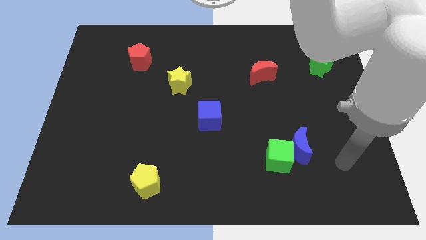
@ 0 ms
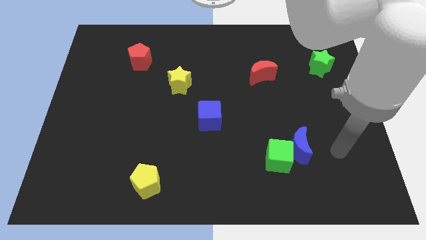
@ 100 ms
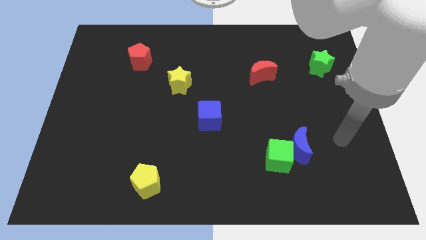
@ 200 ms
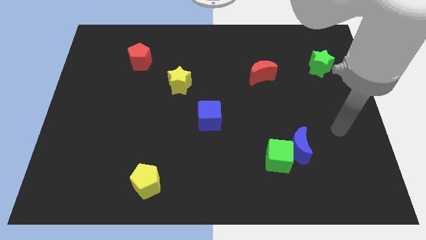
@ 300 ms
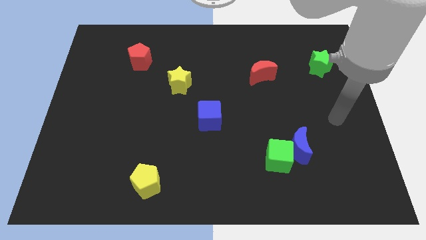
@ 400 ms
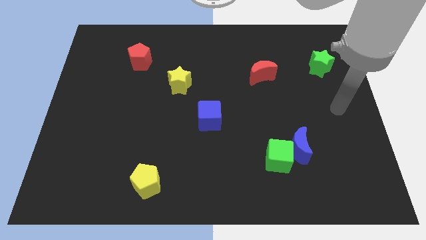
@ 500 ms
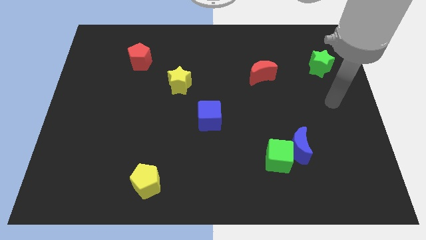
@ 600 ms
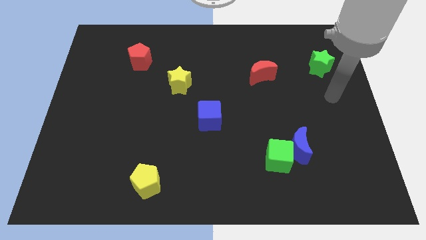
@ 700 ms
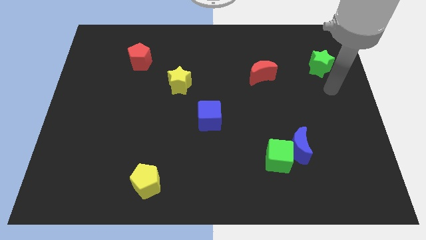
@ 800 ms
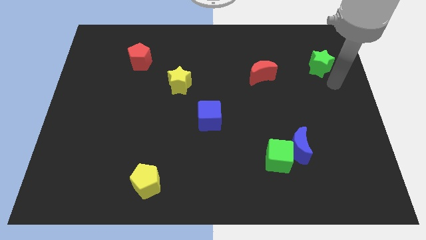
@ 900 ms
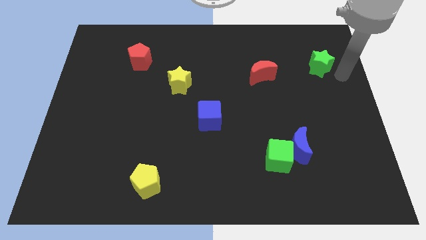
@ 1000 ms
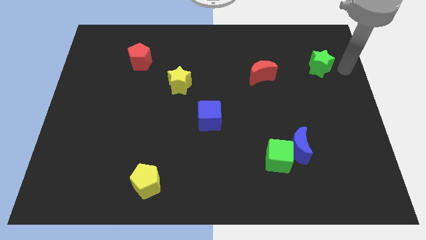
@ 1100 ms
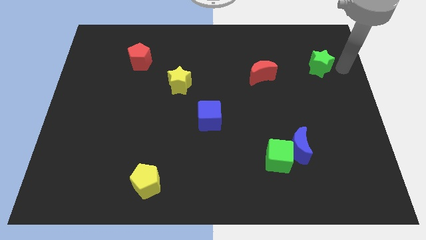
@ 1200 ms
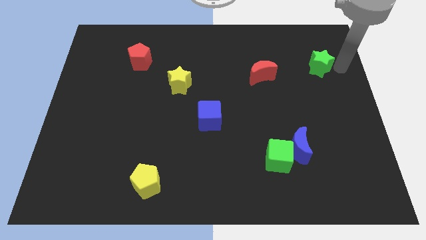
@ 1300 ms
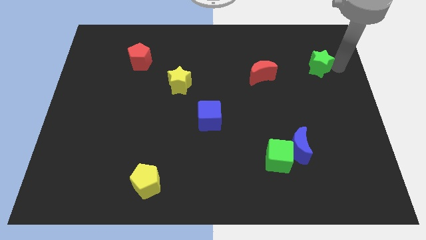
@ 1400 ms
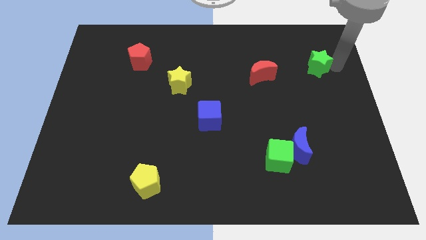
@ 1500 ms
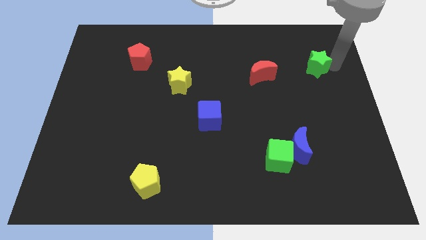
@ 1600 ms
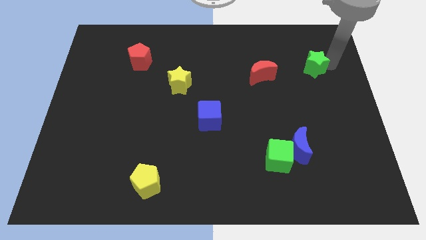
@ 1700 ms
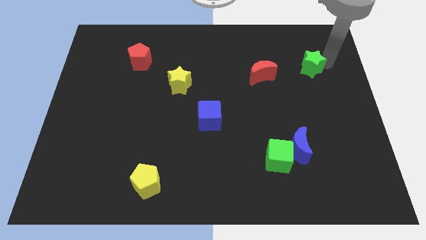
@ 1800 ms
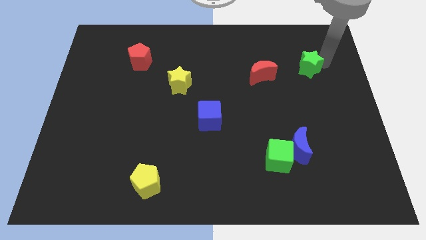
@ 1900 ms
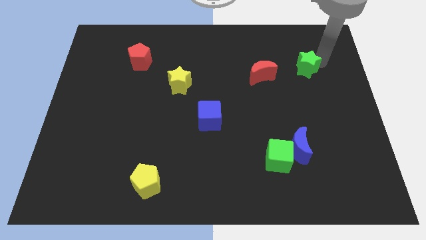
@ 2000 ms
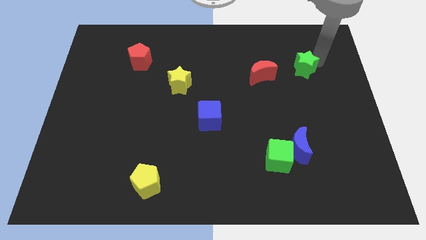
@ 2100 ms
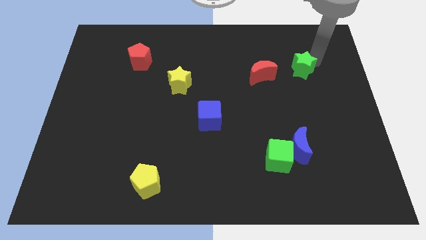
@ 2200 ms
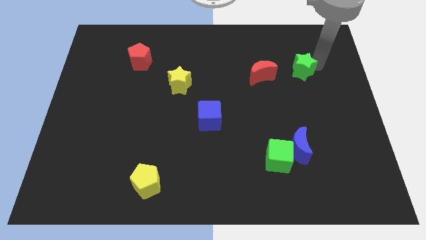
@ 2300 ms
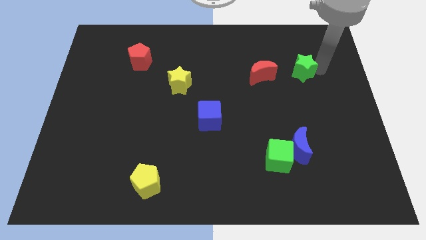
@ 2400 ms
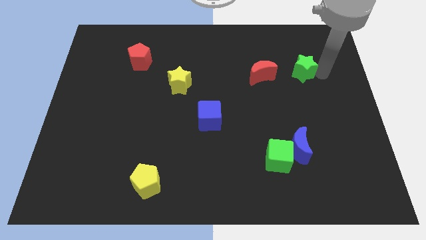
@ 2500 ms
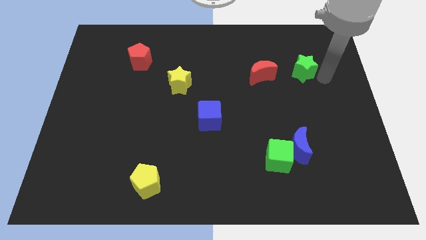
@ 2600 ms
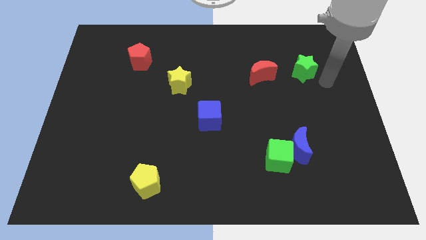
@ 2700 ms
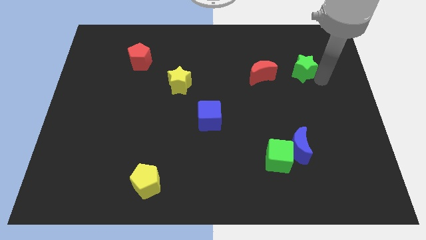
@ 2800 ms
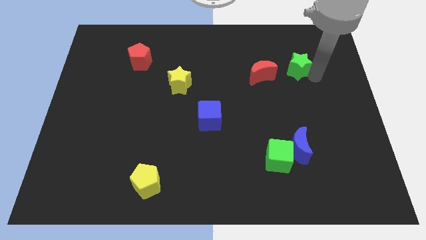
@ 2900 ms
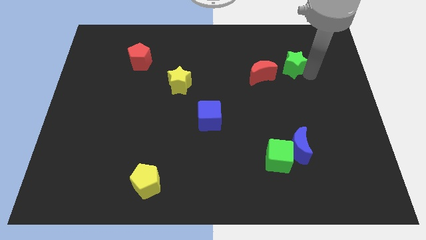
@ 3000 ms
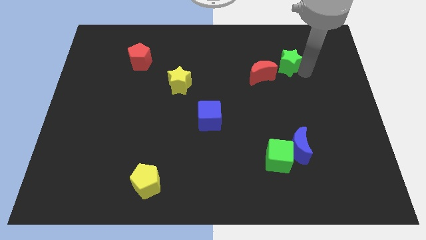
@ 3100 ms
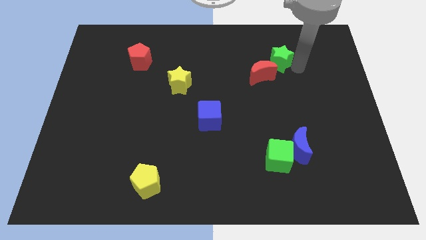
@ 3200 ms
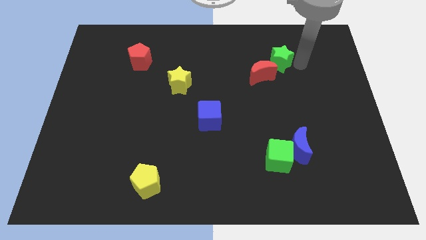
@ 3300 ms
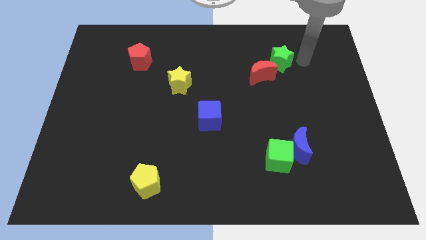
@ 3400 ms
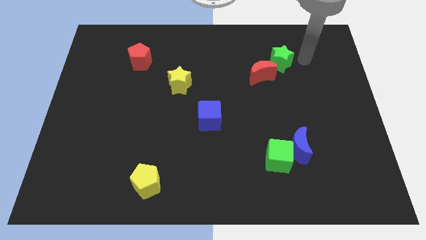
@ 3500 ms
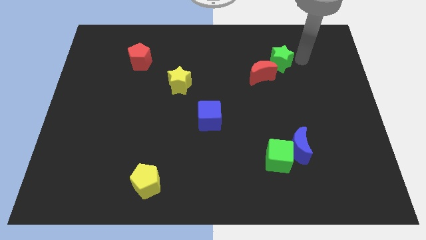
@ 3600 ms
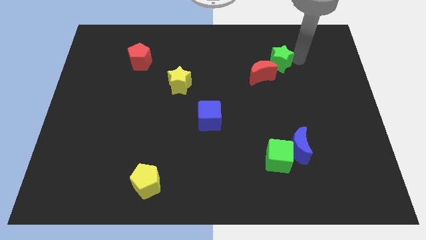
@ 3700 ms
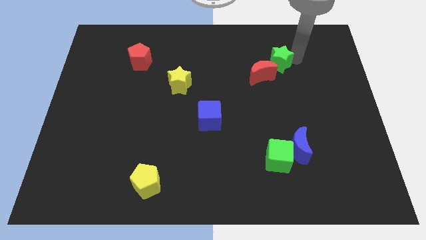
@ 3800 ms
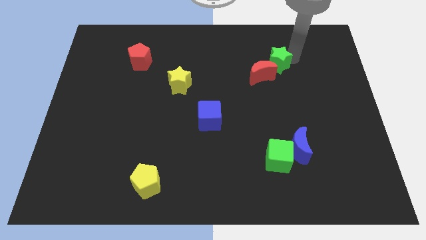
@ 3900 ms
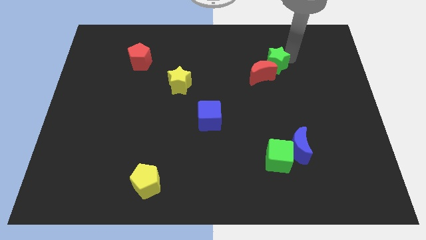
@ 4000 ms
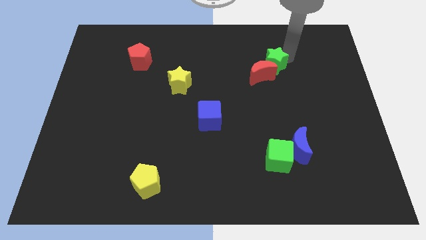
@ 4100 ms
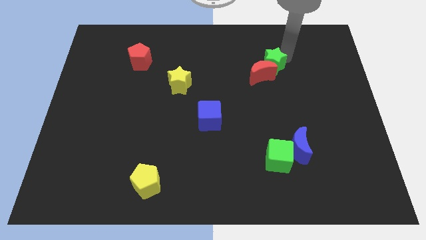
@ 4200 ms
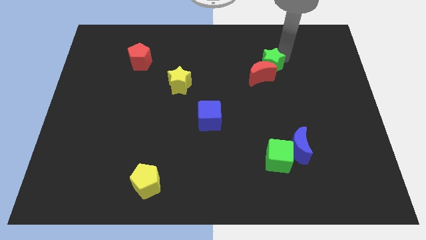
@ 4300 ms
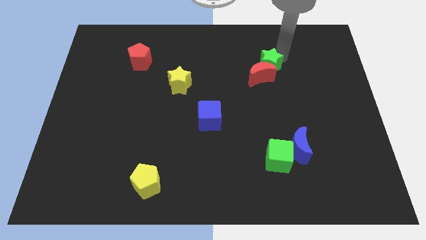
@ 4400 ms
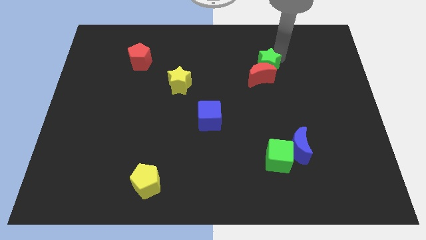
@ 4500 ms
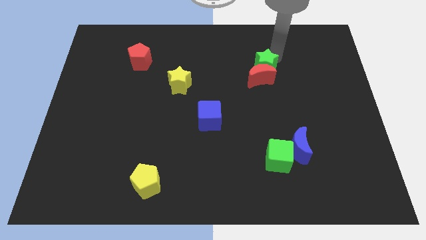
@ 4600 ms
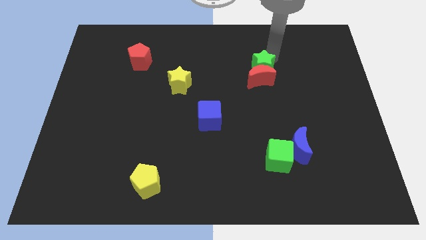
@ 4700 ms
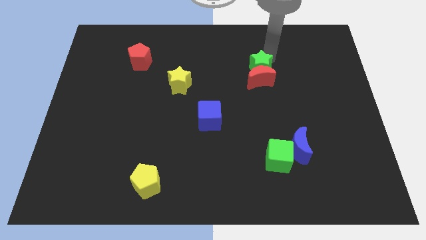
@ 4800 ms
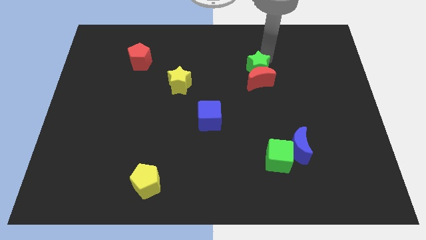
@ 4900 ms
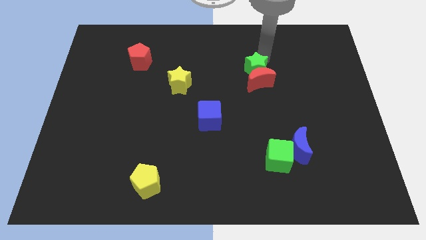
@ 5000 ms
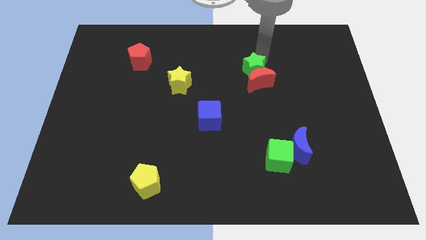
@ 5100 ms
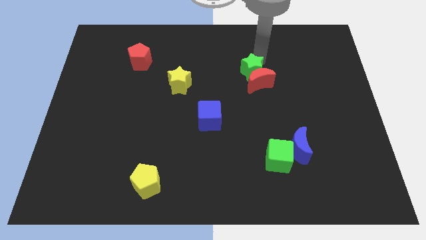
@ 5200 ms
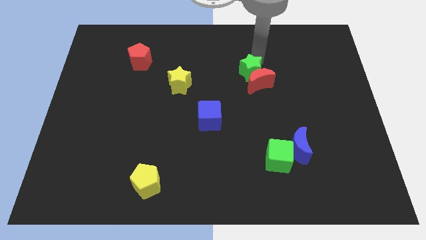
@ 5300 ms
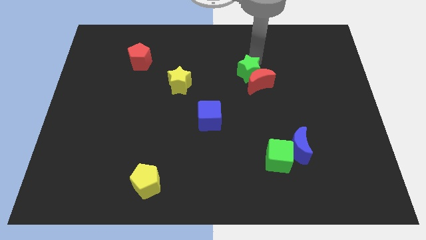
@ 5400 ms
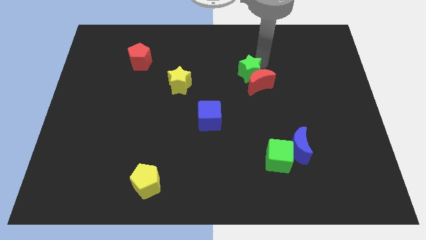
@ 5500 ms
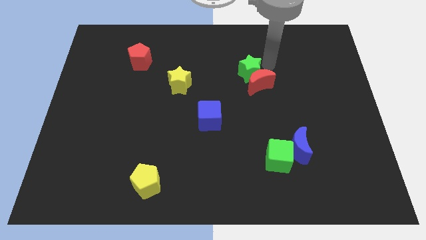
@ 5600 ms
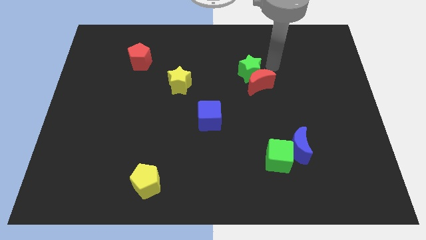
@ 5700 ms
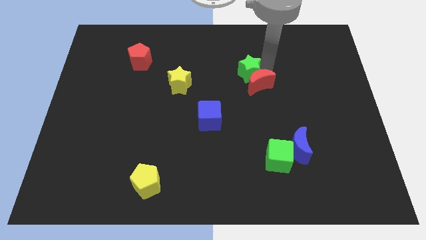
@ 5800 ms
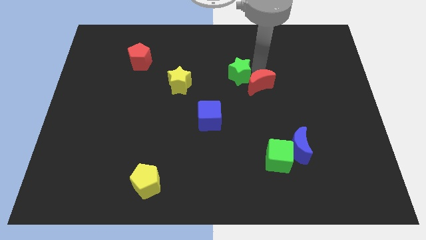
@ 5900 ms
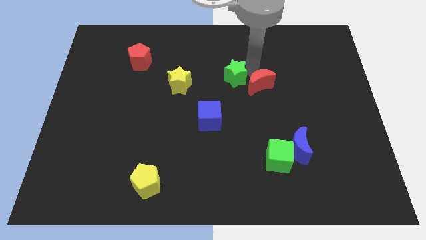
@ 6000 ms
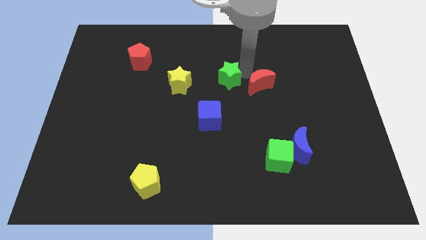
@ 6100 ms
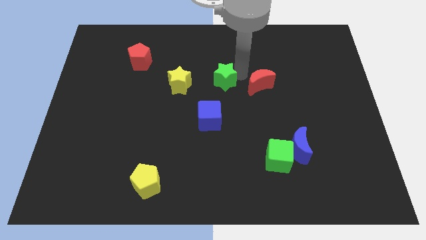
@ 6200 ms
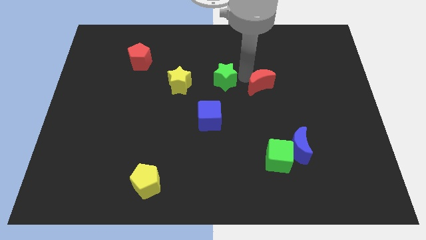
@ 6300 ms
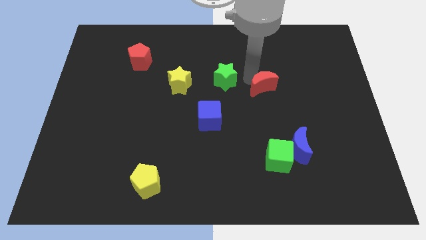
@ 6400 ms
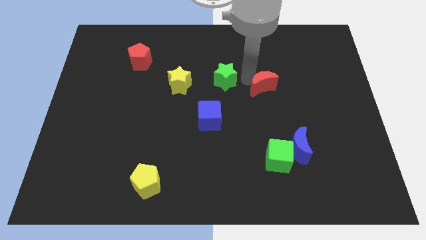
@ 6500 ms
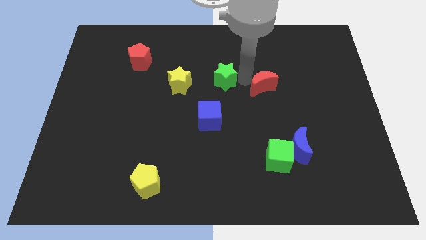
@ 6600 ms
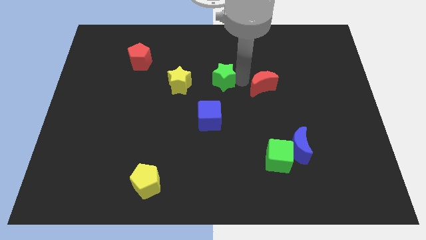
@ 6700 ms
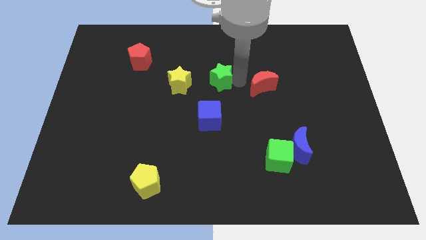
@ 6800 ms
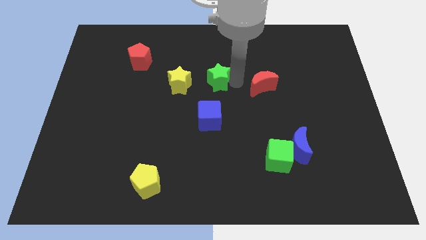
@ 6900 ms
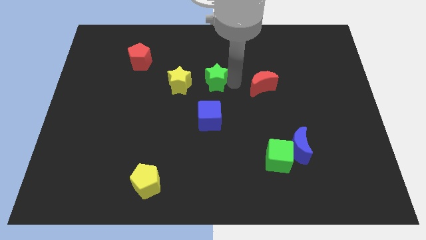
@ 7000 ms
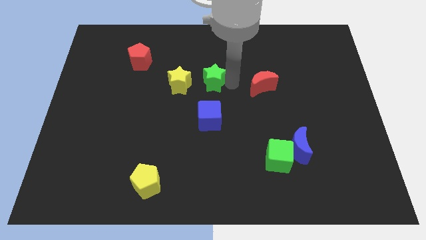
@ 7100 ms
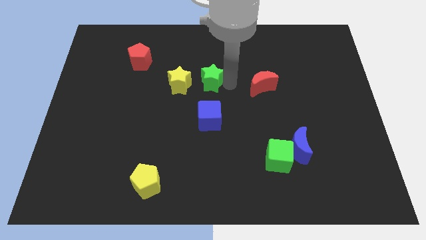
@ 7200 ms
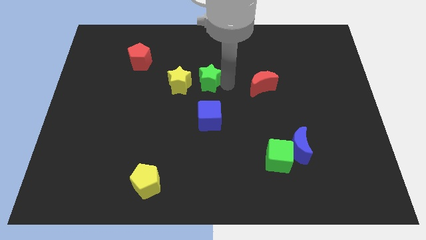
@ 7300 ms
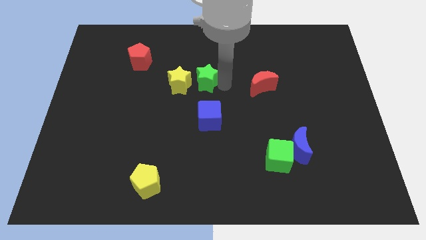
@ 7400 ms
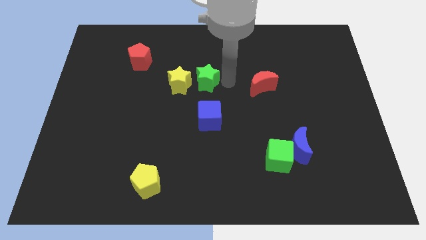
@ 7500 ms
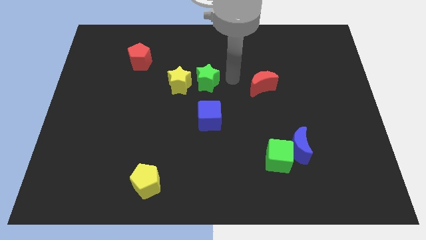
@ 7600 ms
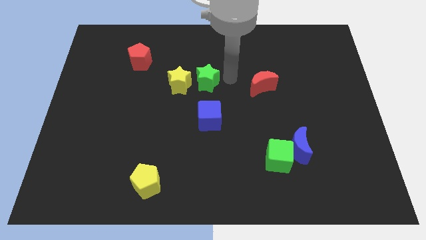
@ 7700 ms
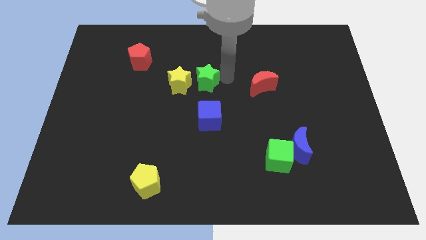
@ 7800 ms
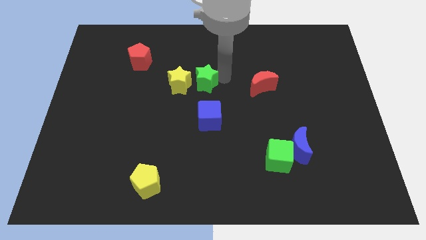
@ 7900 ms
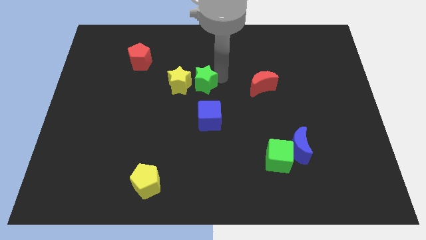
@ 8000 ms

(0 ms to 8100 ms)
put the green star close to the yellow star
